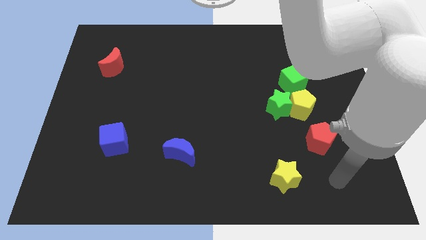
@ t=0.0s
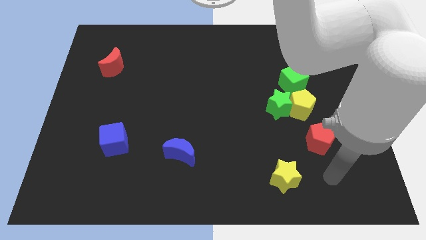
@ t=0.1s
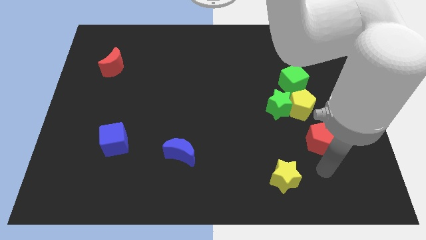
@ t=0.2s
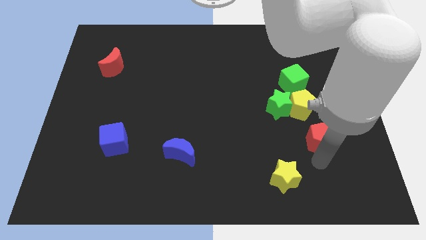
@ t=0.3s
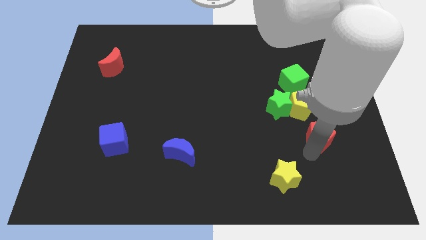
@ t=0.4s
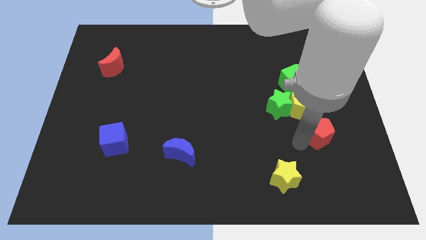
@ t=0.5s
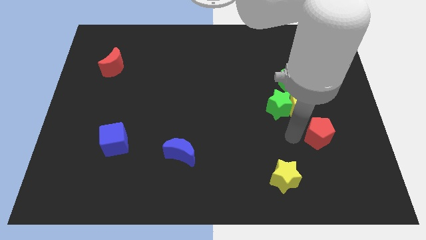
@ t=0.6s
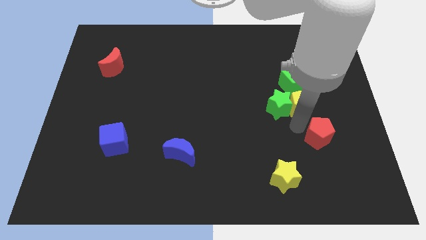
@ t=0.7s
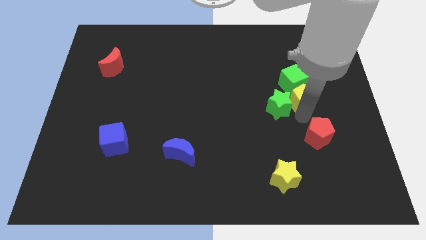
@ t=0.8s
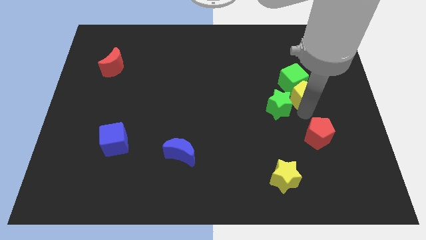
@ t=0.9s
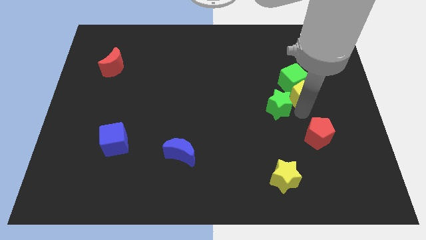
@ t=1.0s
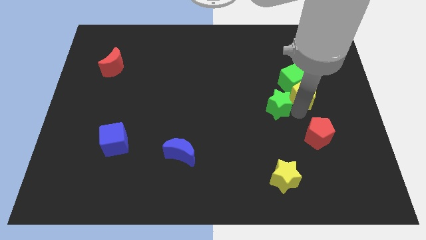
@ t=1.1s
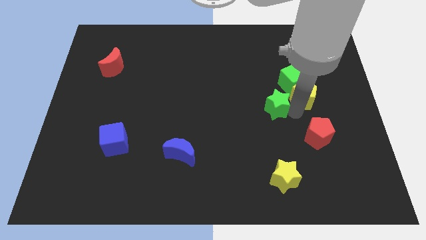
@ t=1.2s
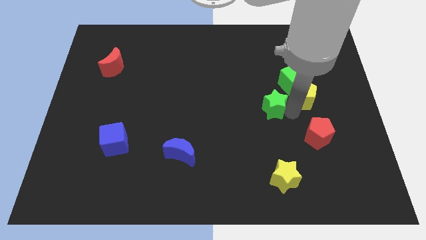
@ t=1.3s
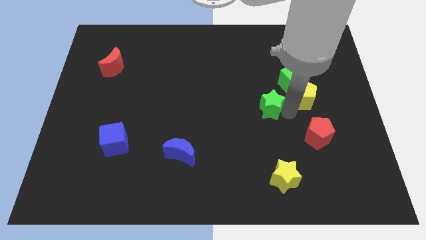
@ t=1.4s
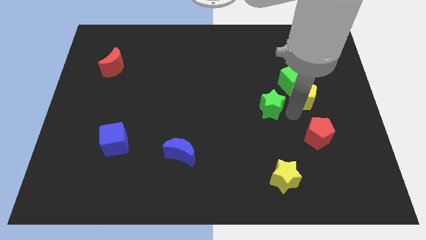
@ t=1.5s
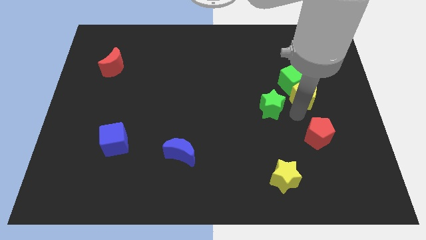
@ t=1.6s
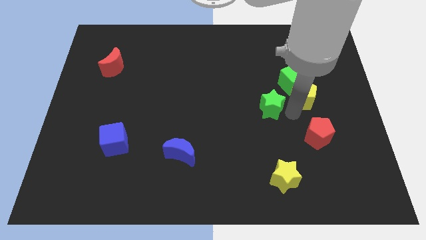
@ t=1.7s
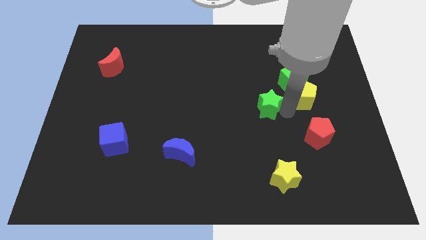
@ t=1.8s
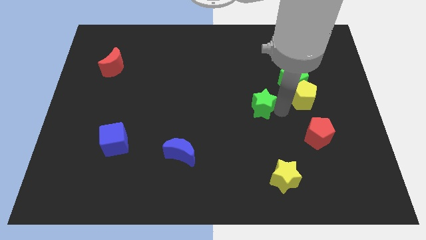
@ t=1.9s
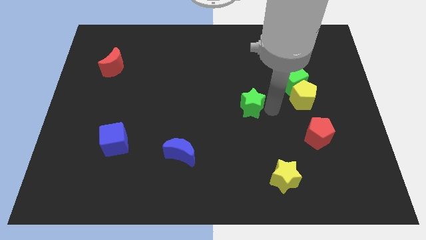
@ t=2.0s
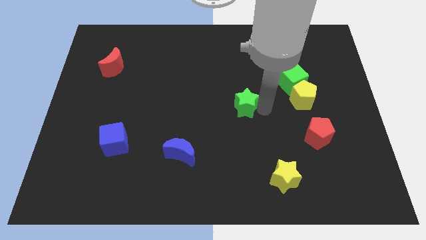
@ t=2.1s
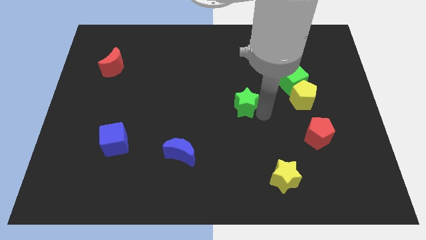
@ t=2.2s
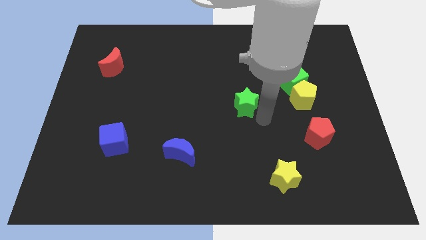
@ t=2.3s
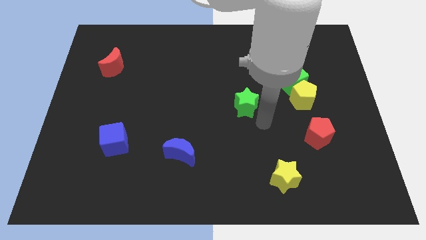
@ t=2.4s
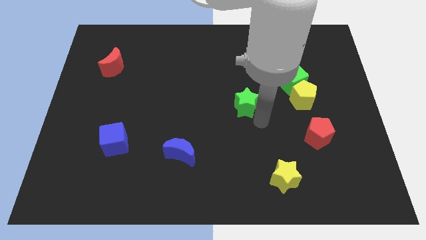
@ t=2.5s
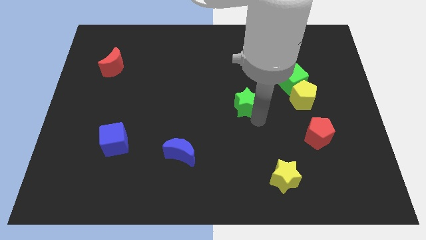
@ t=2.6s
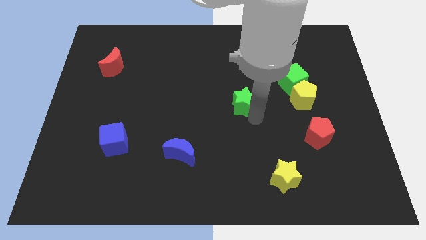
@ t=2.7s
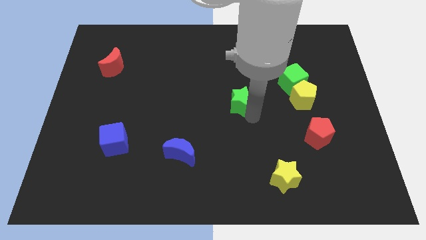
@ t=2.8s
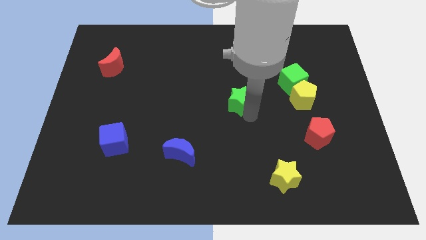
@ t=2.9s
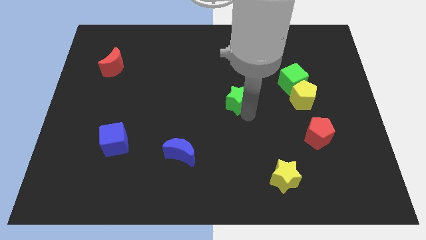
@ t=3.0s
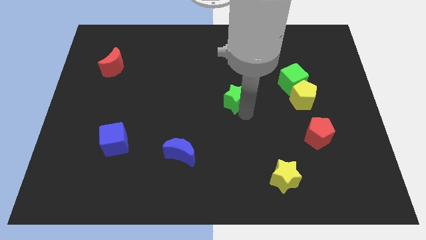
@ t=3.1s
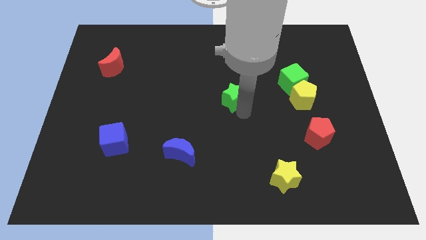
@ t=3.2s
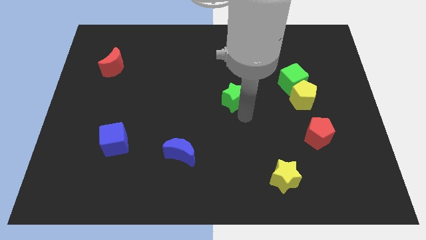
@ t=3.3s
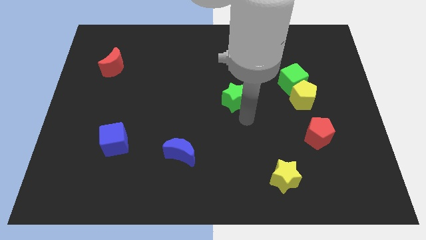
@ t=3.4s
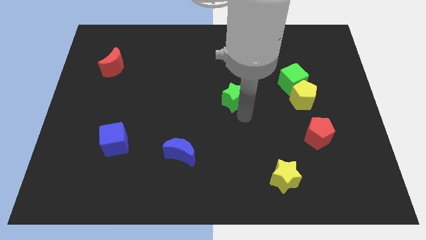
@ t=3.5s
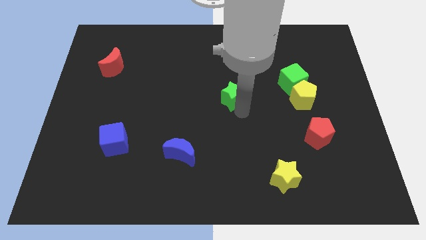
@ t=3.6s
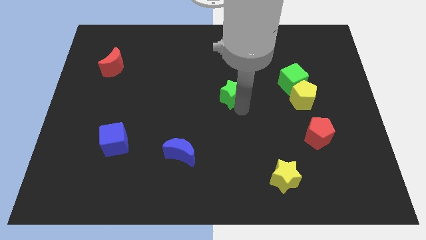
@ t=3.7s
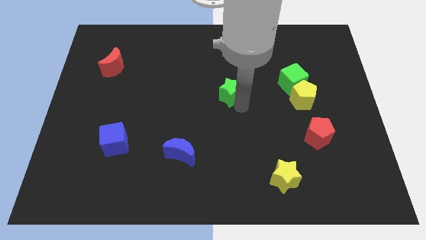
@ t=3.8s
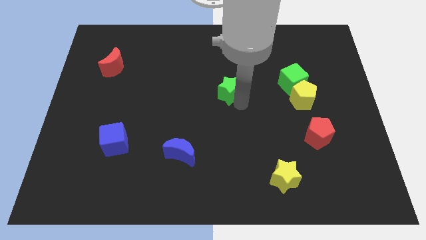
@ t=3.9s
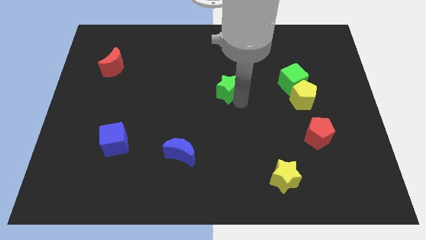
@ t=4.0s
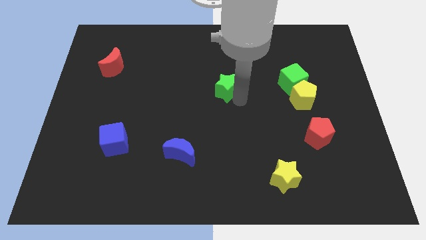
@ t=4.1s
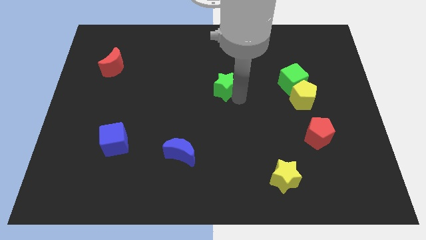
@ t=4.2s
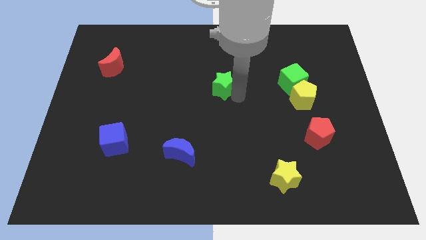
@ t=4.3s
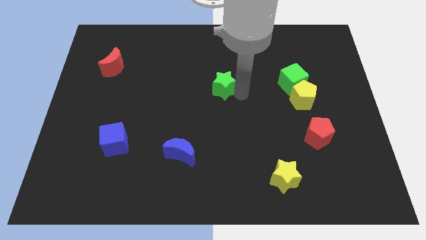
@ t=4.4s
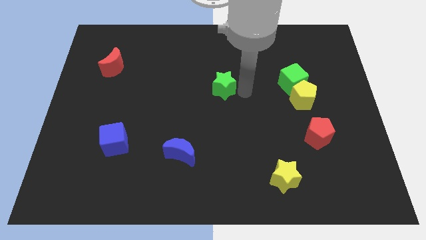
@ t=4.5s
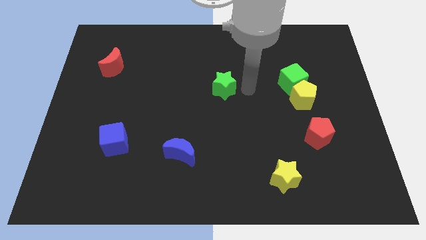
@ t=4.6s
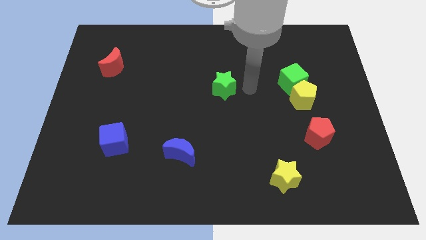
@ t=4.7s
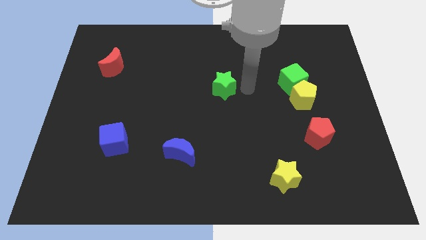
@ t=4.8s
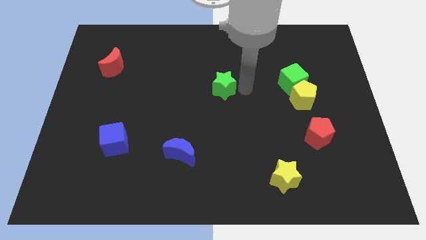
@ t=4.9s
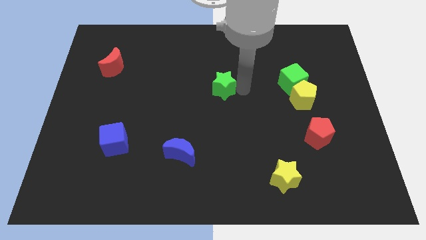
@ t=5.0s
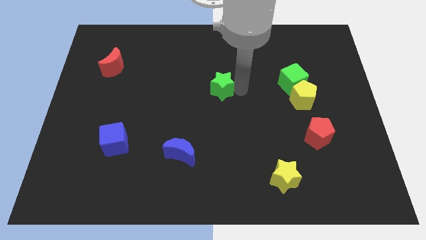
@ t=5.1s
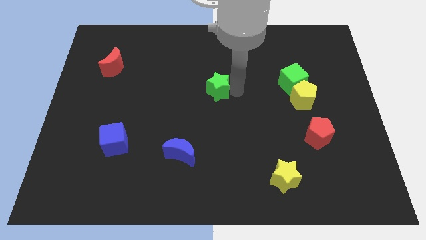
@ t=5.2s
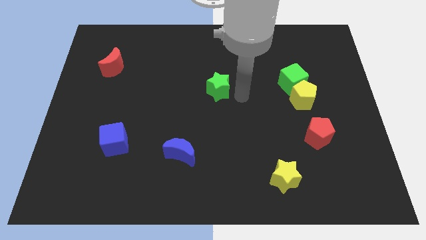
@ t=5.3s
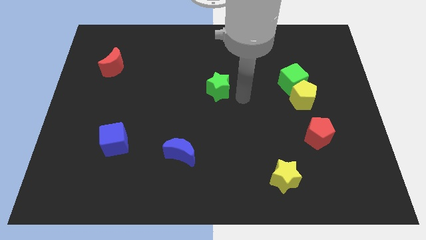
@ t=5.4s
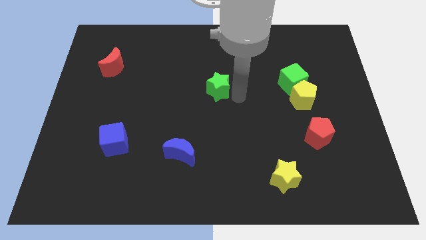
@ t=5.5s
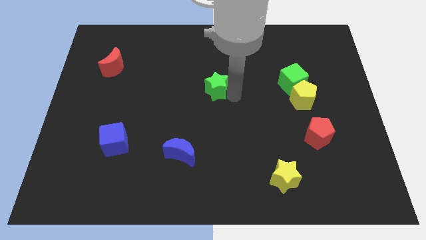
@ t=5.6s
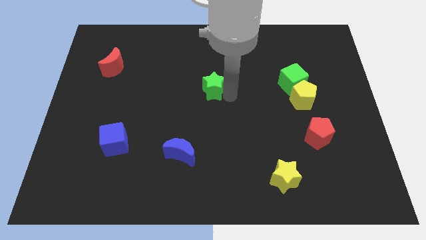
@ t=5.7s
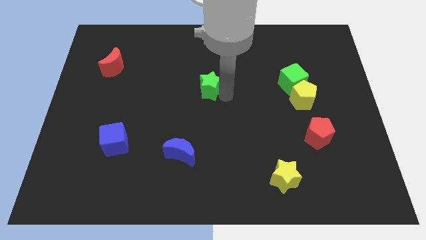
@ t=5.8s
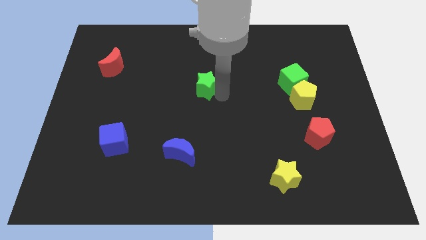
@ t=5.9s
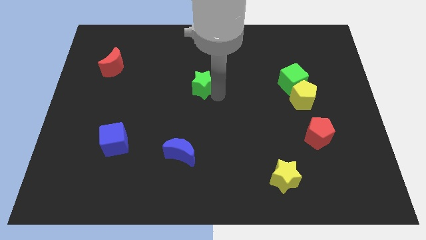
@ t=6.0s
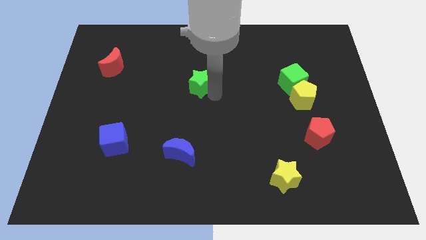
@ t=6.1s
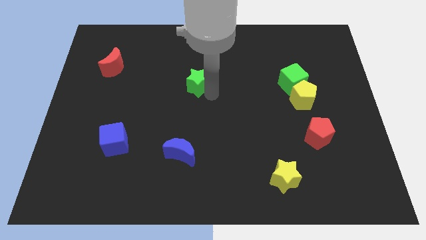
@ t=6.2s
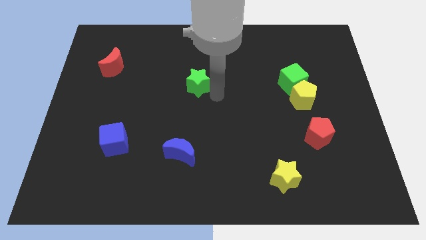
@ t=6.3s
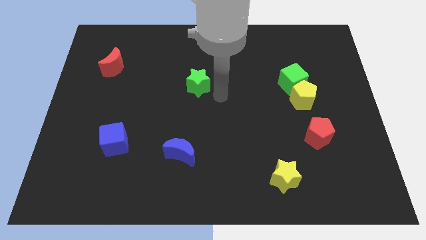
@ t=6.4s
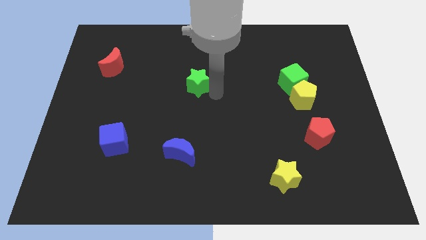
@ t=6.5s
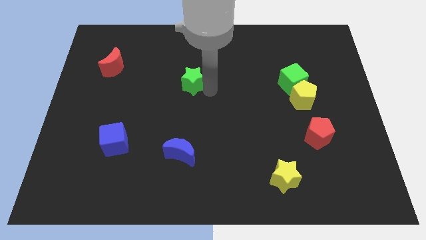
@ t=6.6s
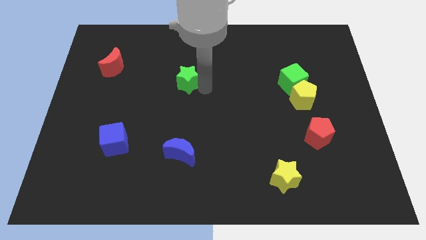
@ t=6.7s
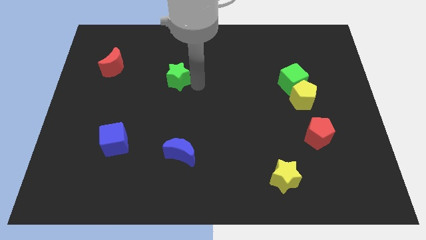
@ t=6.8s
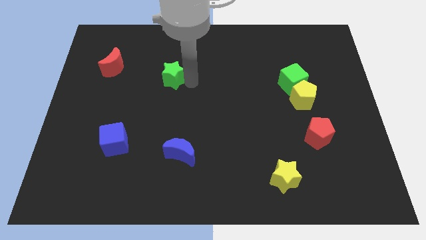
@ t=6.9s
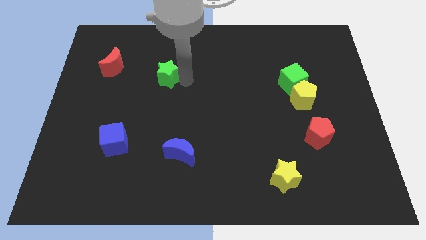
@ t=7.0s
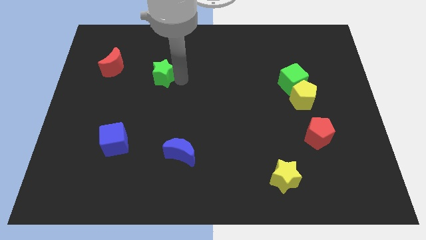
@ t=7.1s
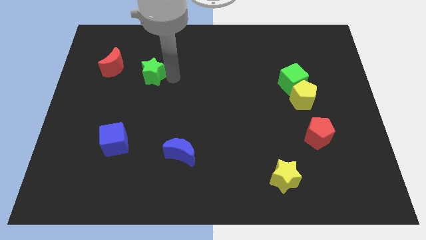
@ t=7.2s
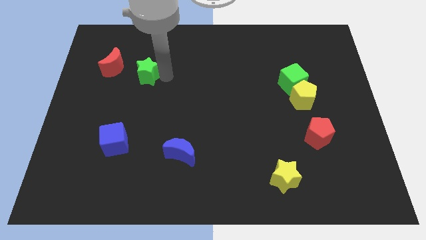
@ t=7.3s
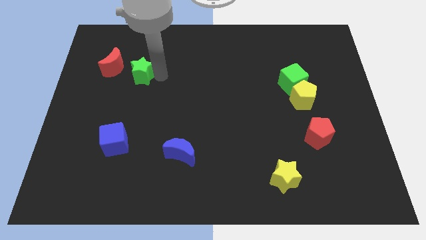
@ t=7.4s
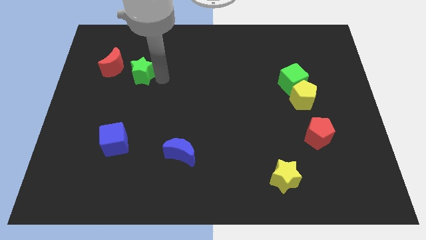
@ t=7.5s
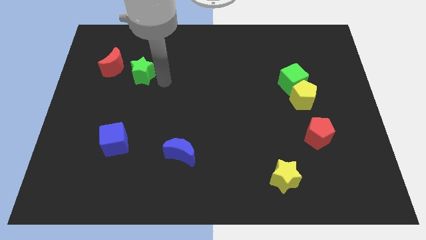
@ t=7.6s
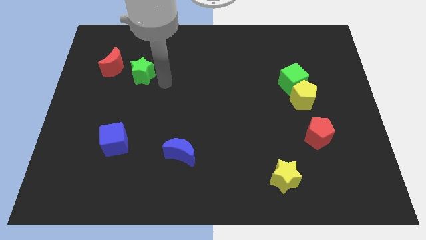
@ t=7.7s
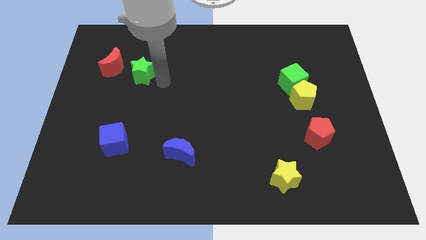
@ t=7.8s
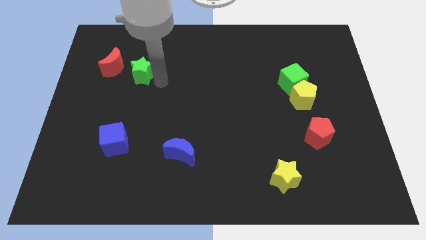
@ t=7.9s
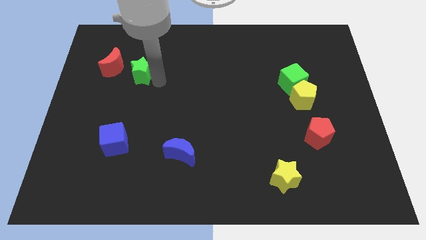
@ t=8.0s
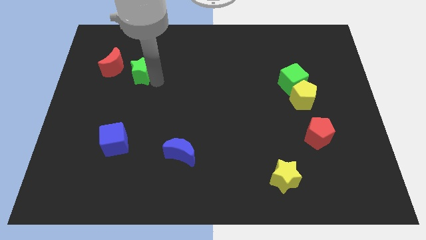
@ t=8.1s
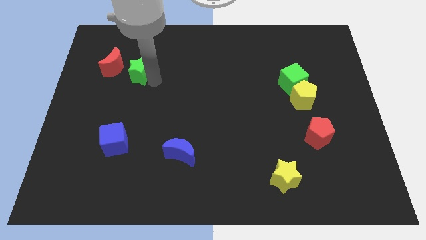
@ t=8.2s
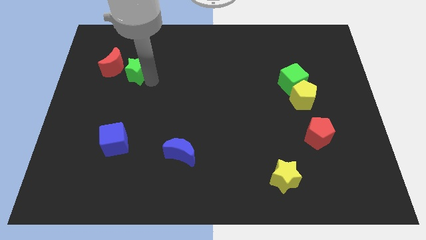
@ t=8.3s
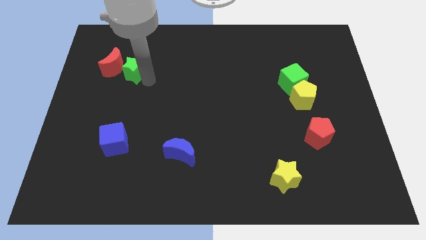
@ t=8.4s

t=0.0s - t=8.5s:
move the green star to the red moon
